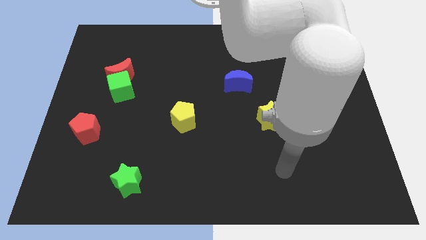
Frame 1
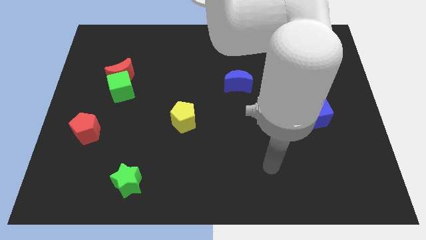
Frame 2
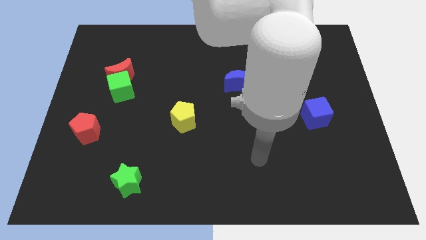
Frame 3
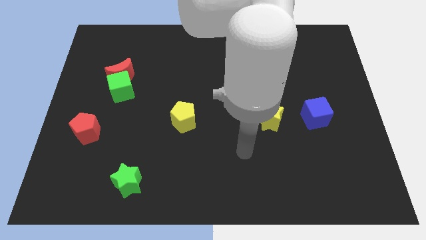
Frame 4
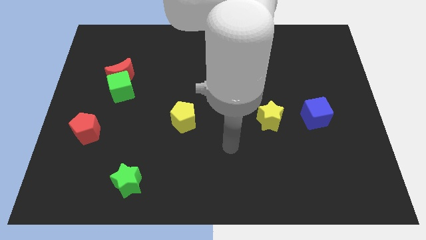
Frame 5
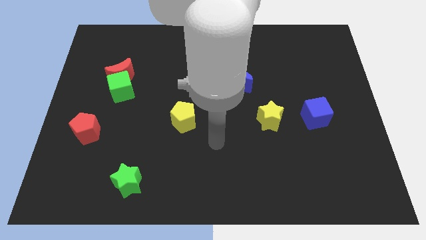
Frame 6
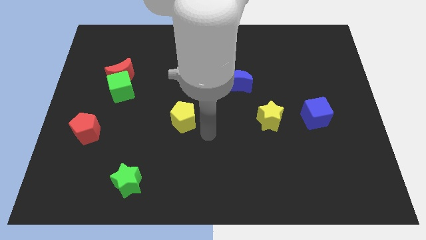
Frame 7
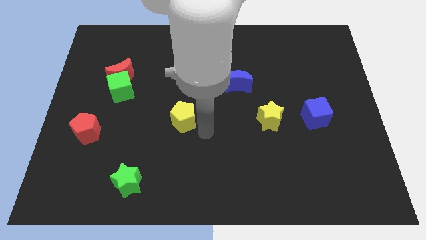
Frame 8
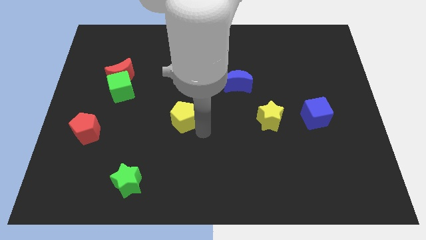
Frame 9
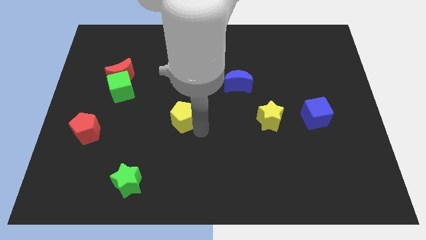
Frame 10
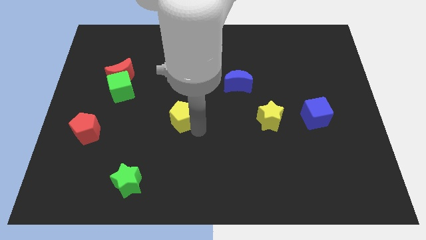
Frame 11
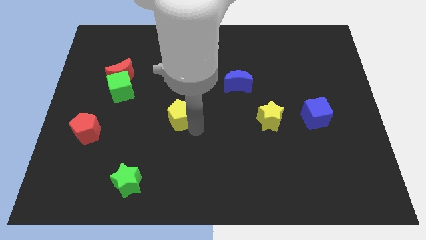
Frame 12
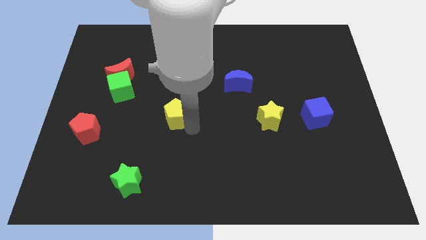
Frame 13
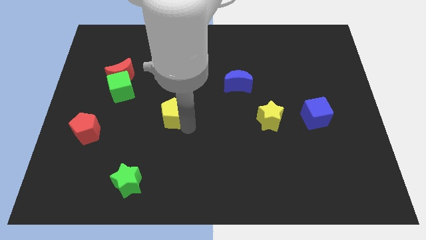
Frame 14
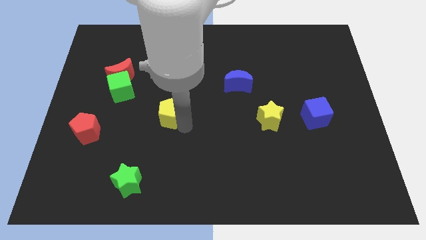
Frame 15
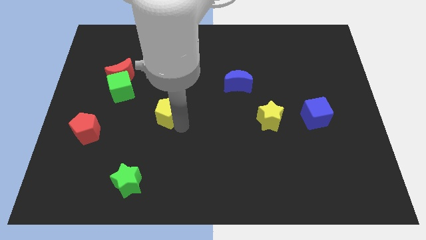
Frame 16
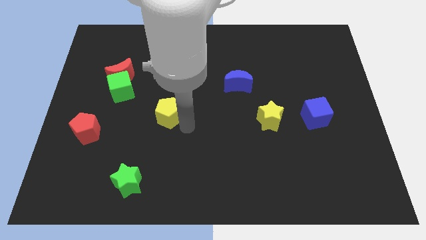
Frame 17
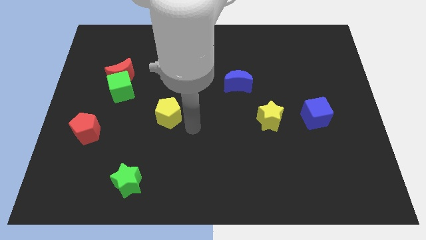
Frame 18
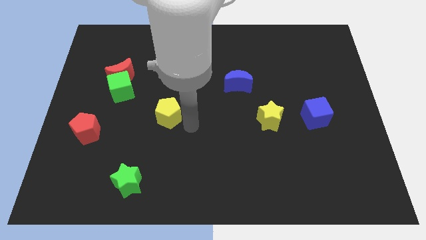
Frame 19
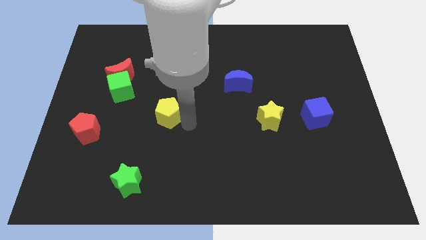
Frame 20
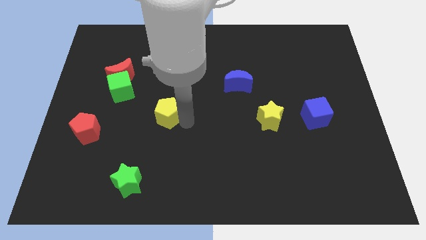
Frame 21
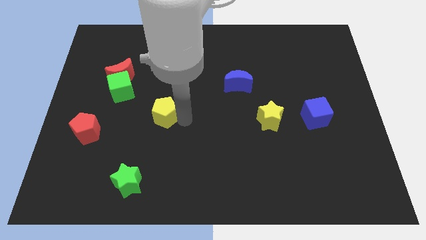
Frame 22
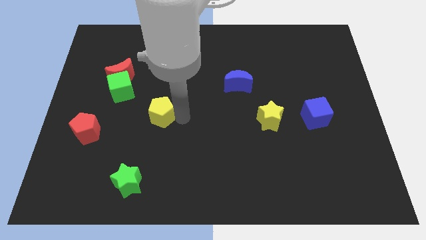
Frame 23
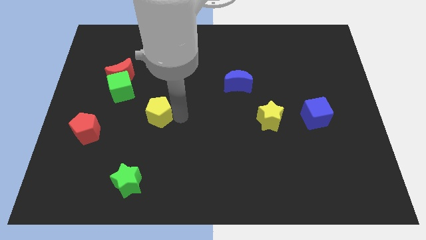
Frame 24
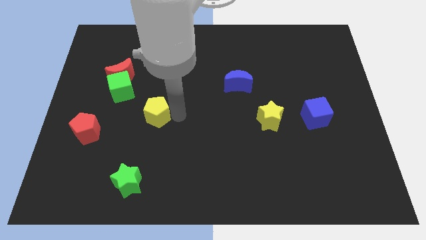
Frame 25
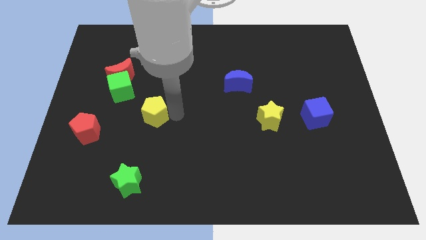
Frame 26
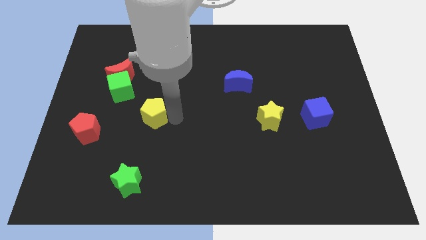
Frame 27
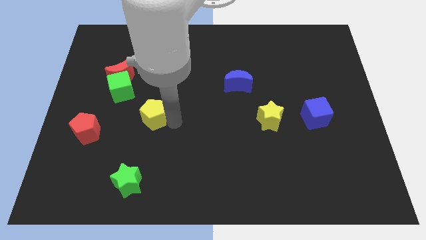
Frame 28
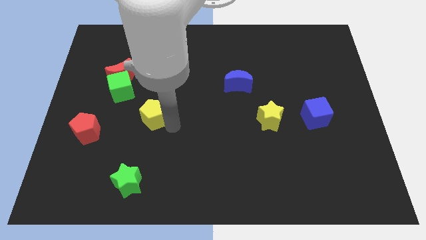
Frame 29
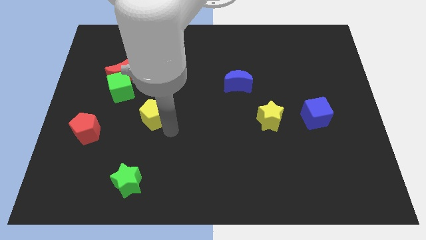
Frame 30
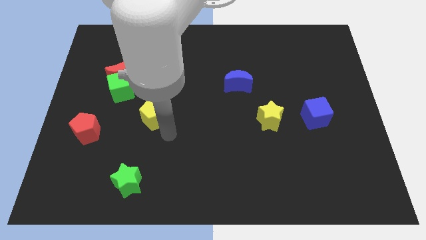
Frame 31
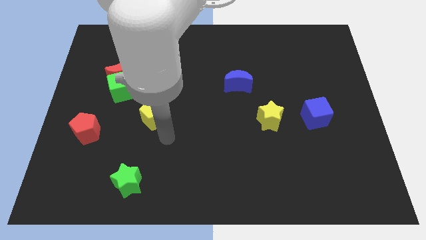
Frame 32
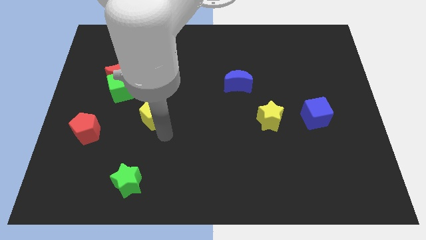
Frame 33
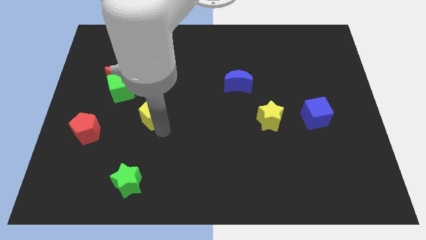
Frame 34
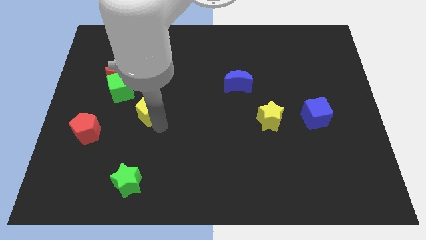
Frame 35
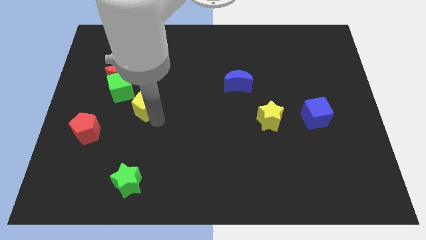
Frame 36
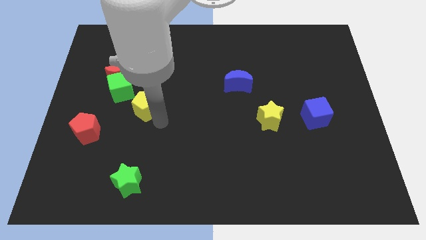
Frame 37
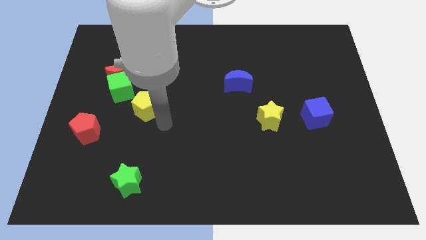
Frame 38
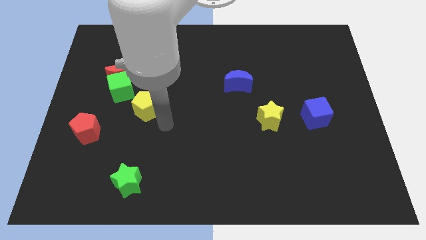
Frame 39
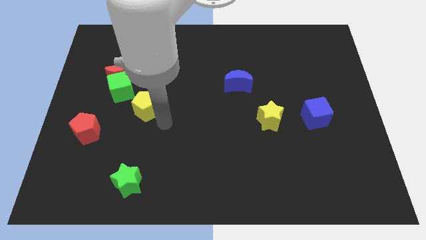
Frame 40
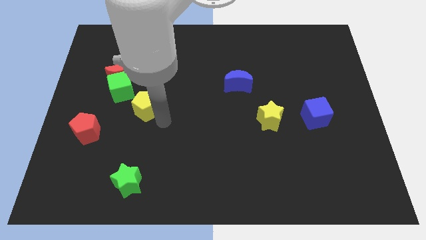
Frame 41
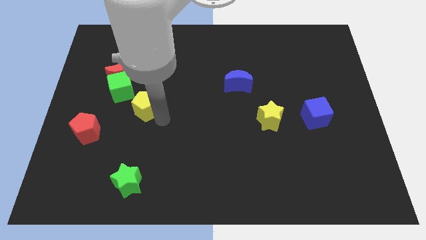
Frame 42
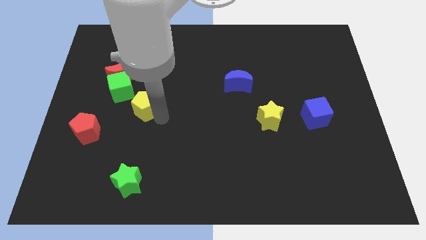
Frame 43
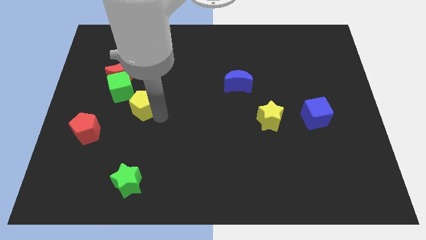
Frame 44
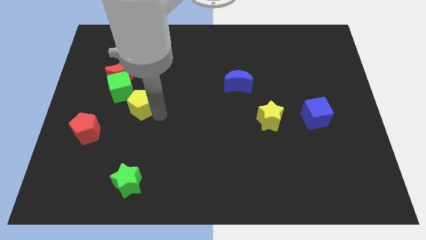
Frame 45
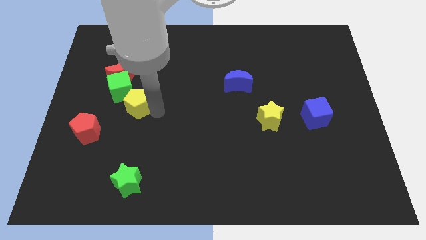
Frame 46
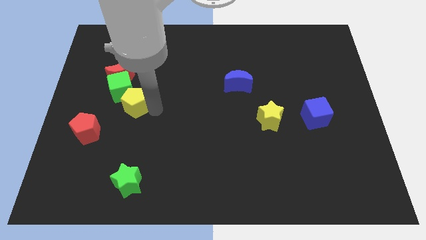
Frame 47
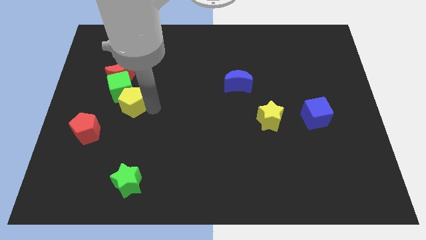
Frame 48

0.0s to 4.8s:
move the yellow pentagon next to the green cube

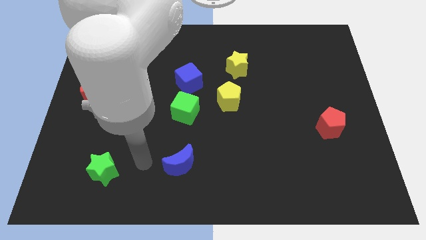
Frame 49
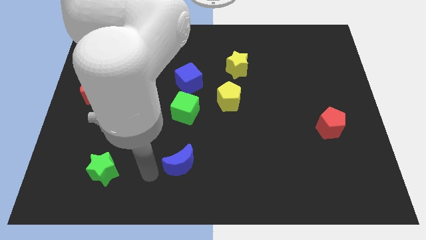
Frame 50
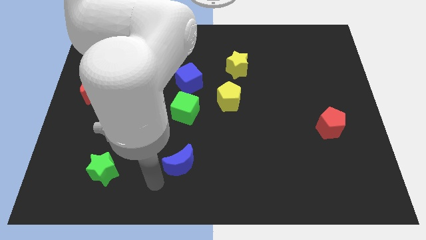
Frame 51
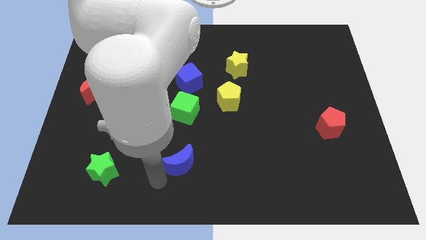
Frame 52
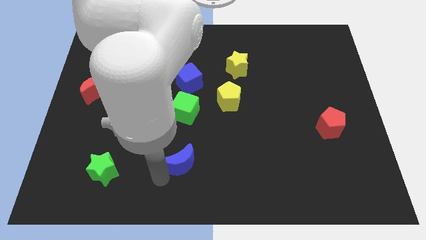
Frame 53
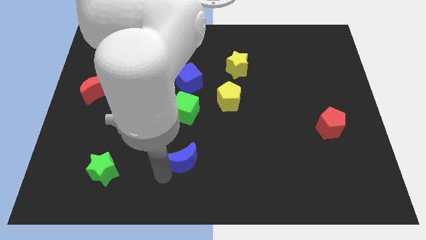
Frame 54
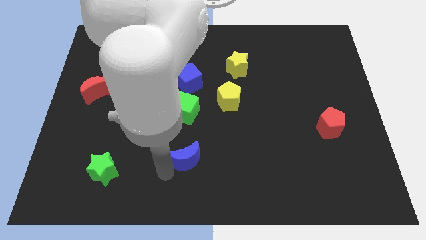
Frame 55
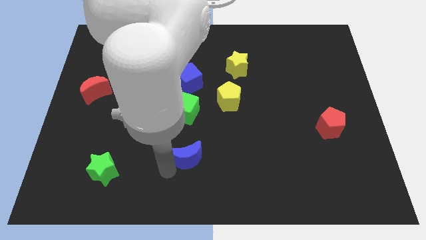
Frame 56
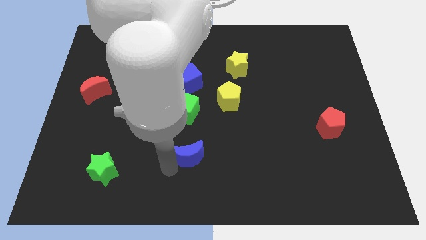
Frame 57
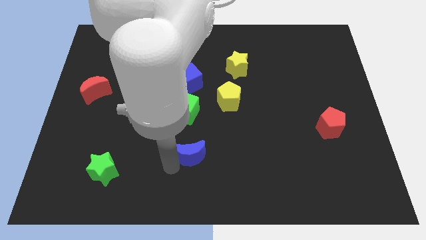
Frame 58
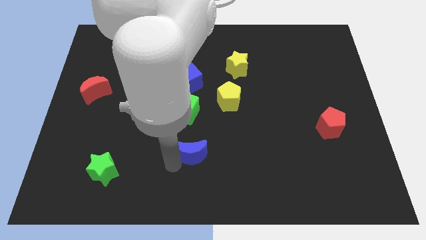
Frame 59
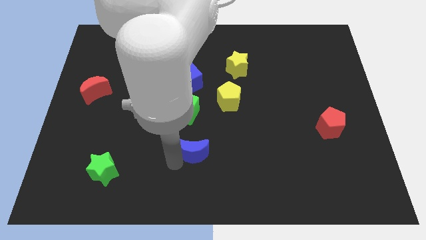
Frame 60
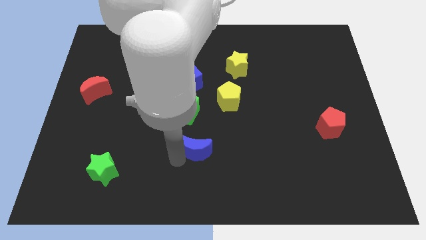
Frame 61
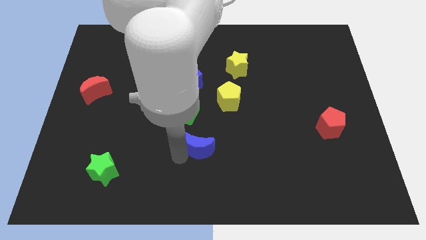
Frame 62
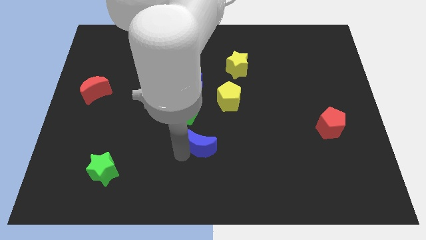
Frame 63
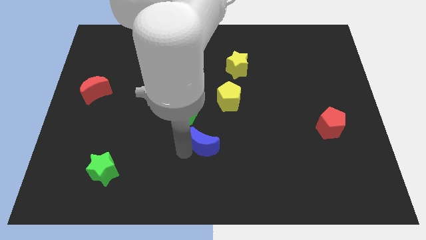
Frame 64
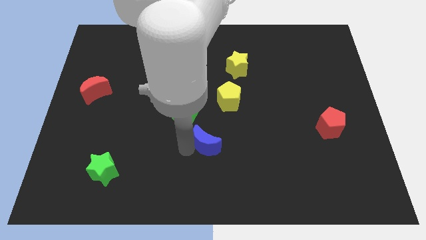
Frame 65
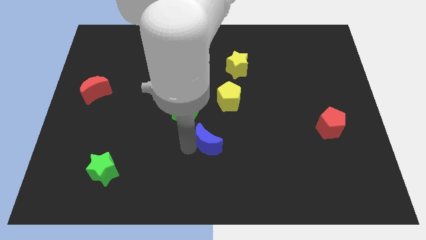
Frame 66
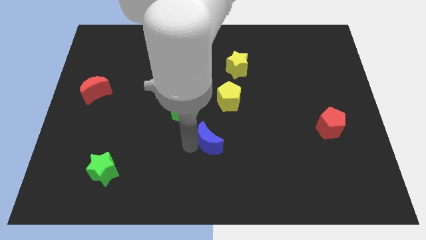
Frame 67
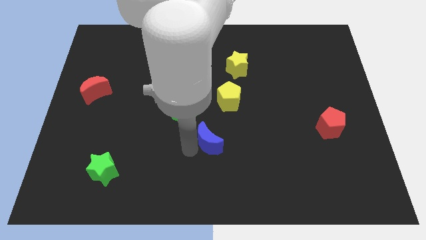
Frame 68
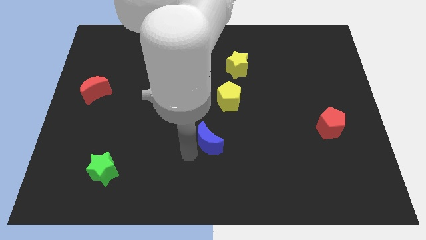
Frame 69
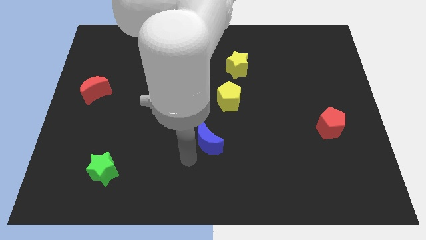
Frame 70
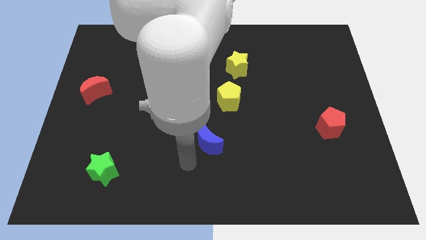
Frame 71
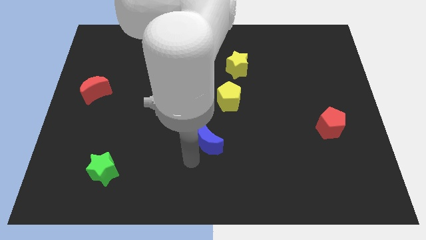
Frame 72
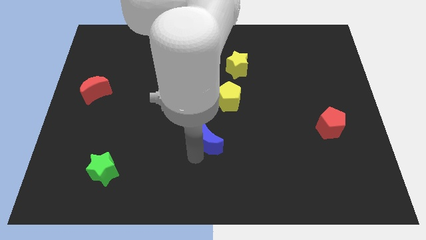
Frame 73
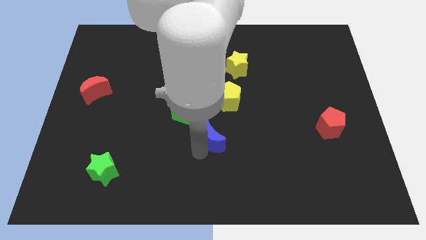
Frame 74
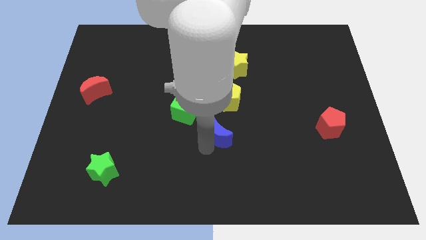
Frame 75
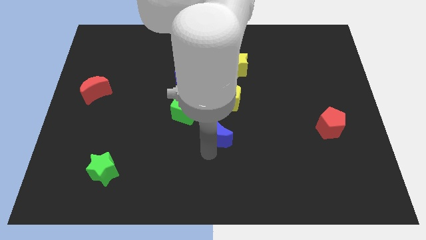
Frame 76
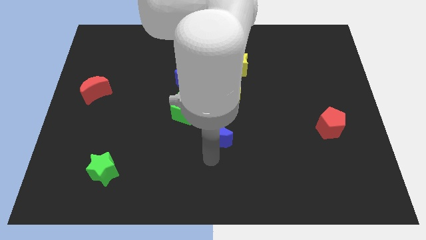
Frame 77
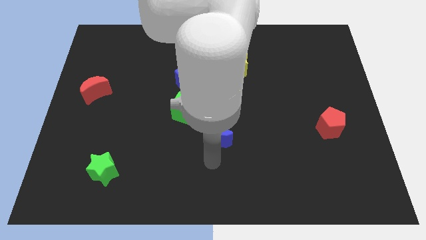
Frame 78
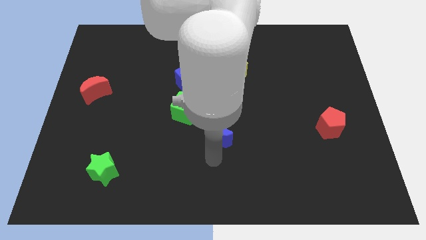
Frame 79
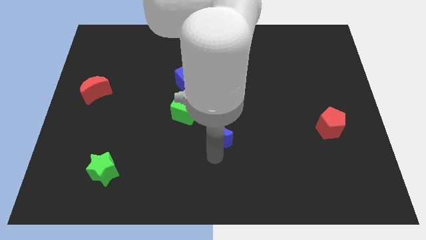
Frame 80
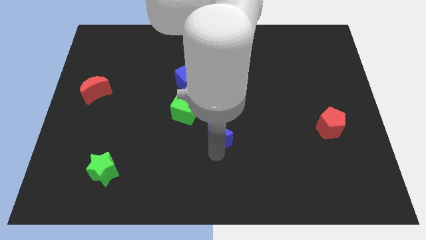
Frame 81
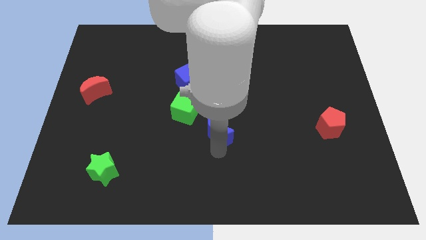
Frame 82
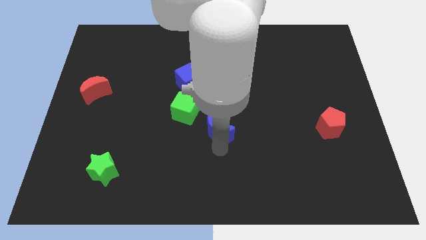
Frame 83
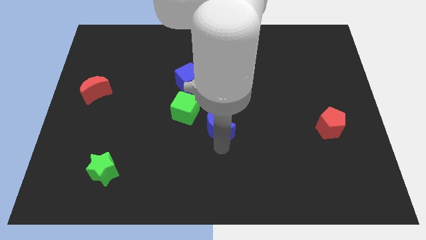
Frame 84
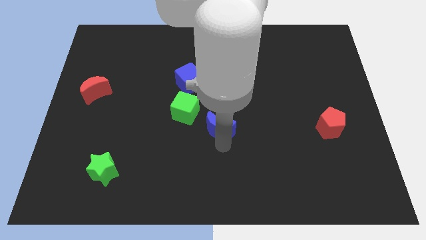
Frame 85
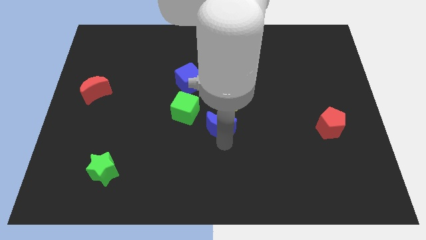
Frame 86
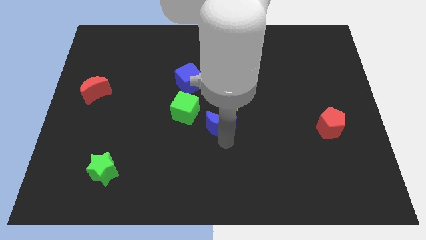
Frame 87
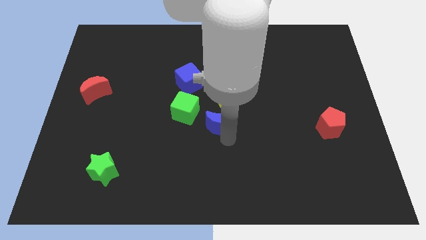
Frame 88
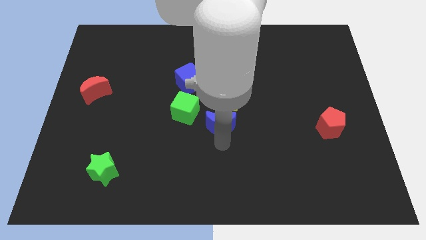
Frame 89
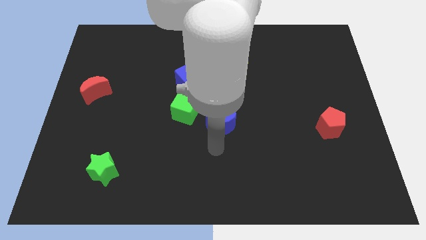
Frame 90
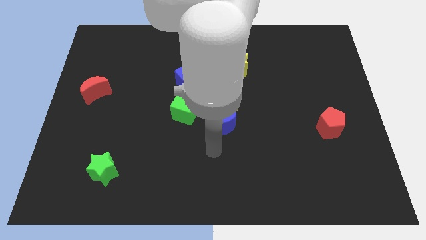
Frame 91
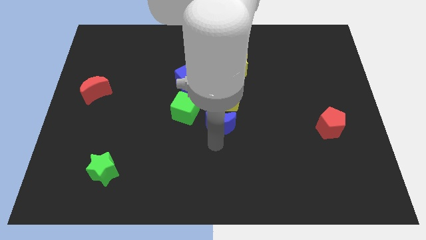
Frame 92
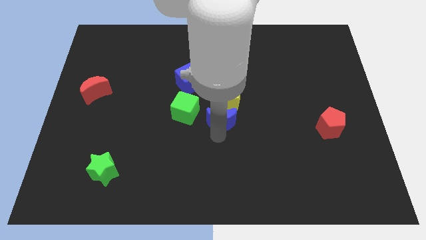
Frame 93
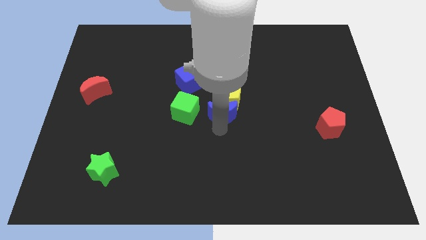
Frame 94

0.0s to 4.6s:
put the blue moon to the yellow pentagon
